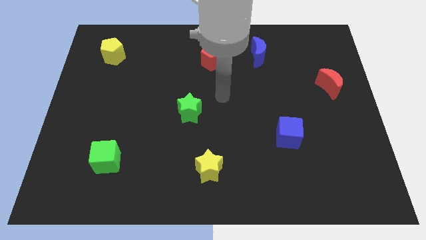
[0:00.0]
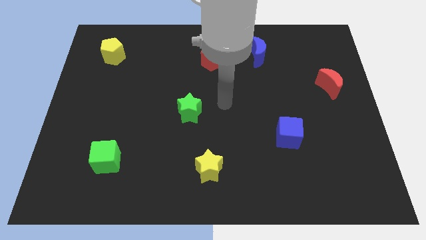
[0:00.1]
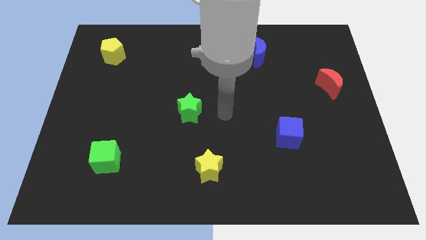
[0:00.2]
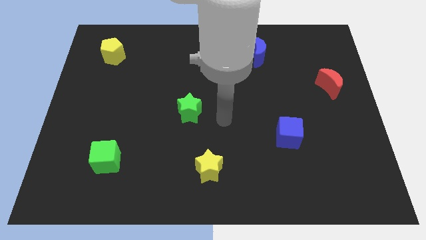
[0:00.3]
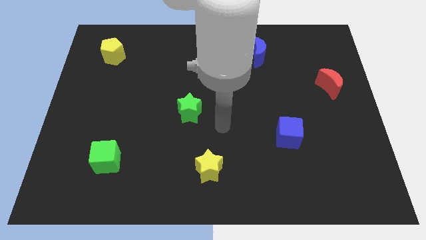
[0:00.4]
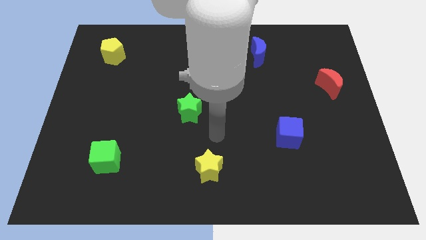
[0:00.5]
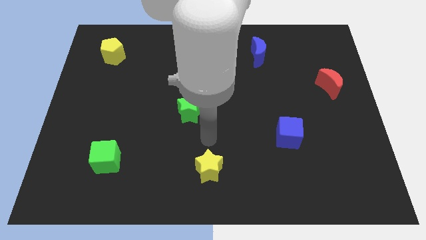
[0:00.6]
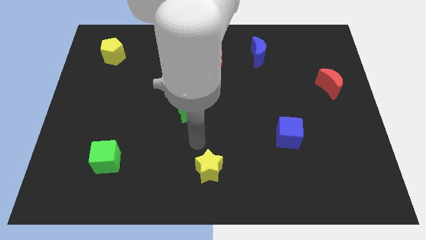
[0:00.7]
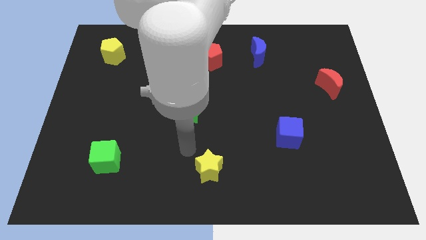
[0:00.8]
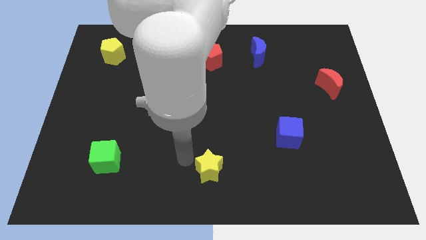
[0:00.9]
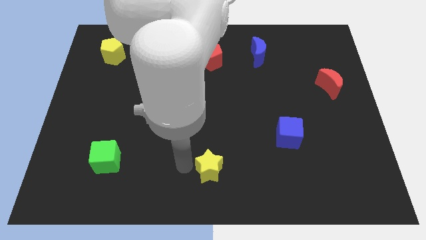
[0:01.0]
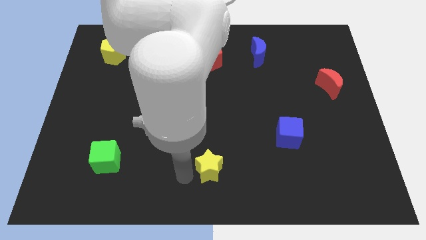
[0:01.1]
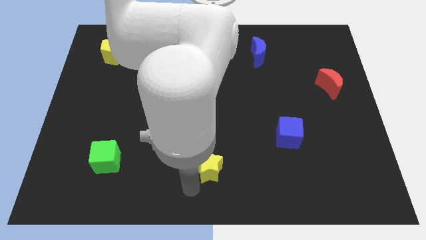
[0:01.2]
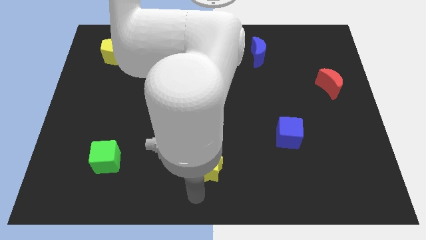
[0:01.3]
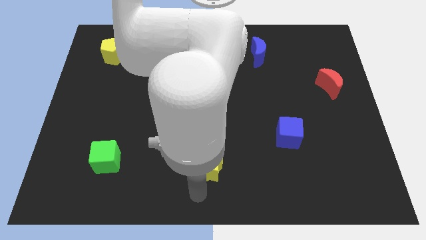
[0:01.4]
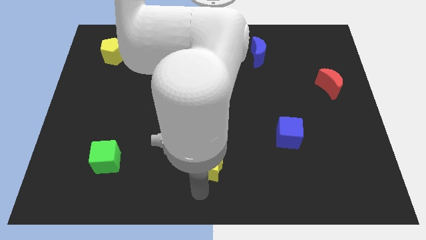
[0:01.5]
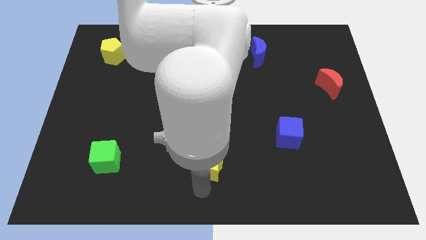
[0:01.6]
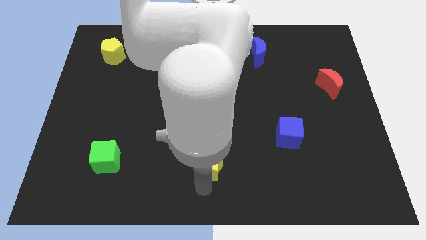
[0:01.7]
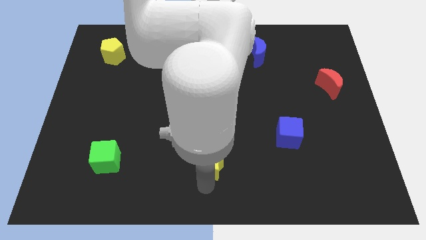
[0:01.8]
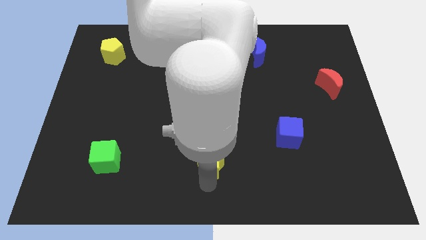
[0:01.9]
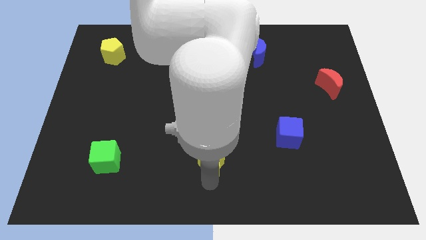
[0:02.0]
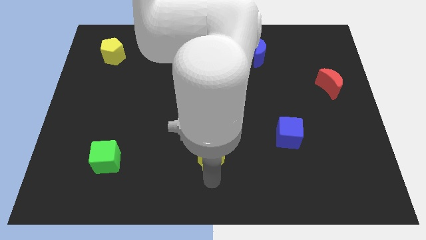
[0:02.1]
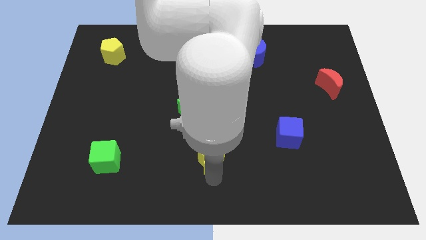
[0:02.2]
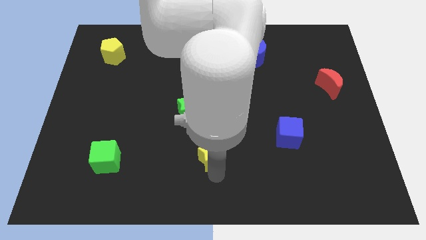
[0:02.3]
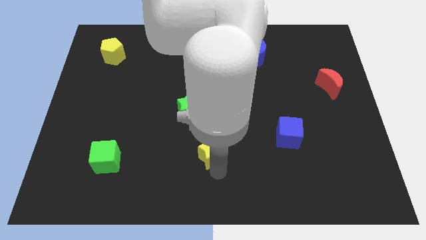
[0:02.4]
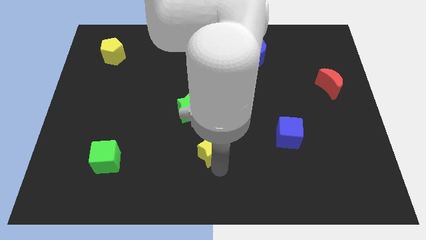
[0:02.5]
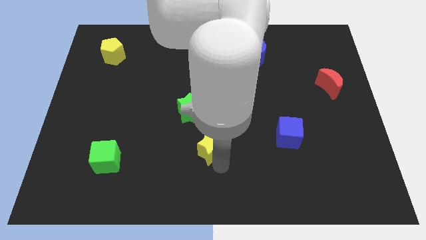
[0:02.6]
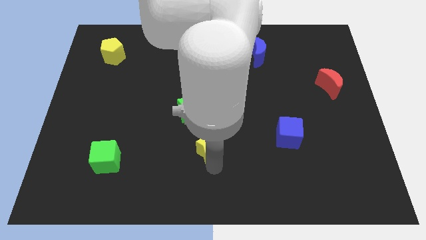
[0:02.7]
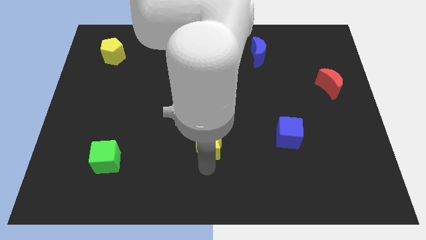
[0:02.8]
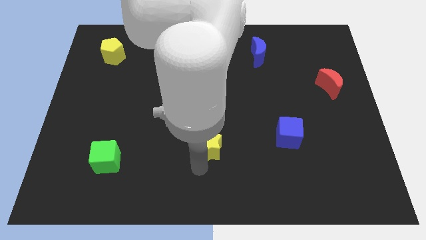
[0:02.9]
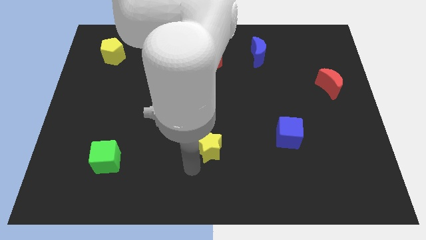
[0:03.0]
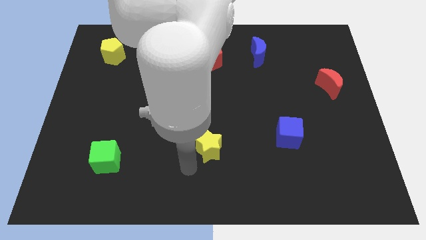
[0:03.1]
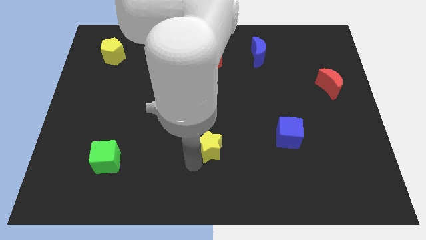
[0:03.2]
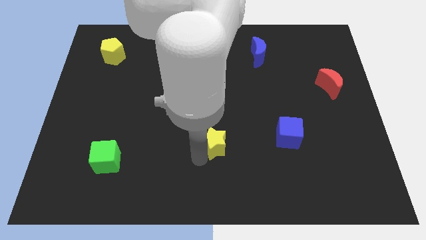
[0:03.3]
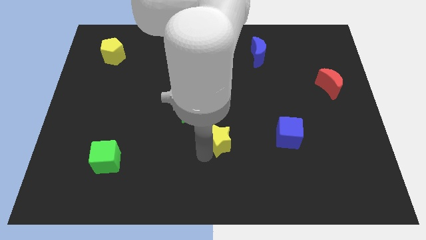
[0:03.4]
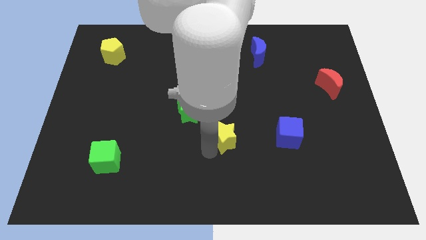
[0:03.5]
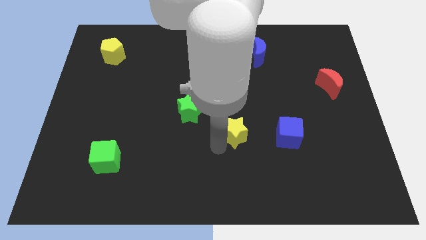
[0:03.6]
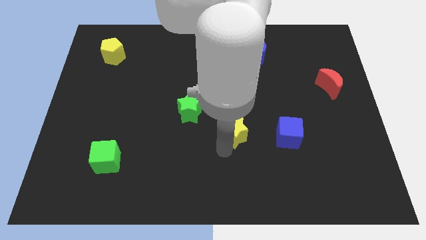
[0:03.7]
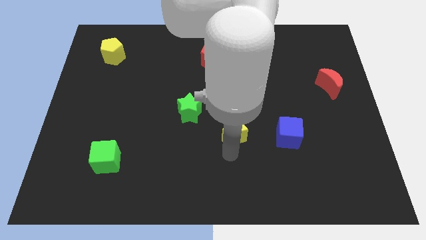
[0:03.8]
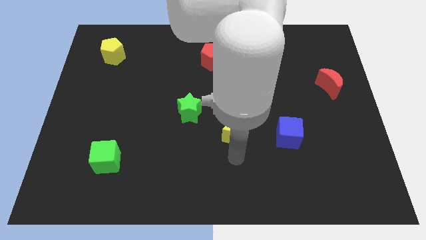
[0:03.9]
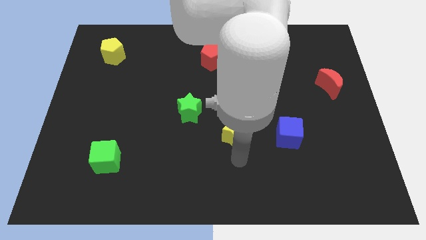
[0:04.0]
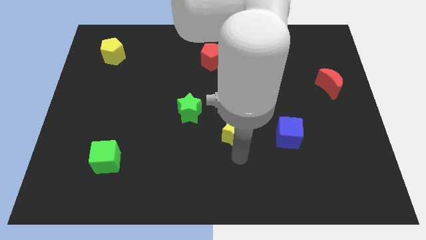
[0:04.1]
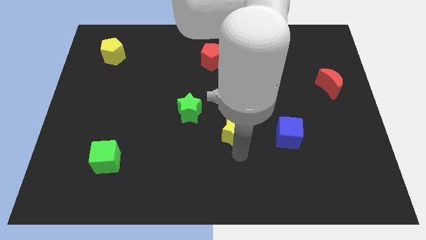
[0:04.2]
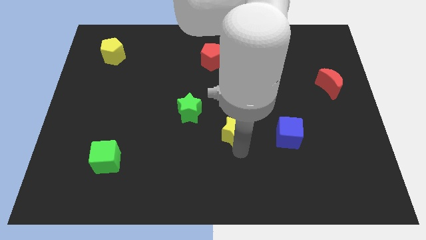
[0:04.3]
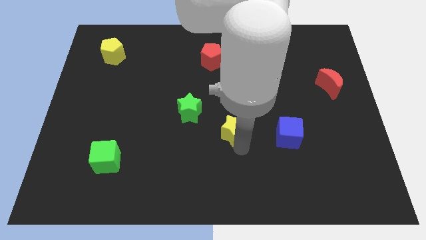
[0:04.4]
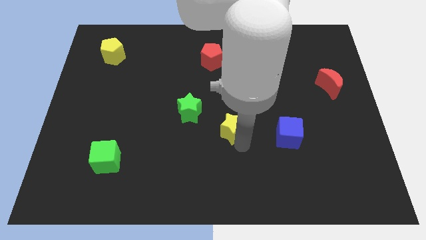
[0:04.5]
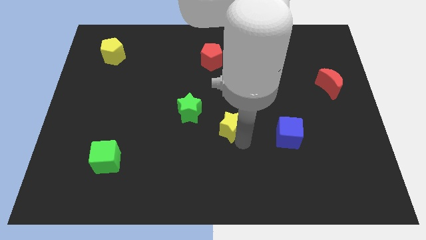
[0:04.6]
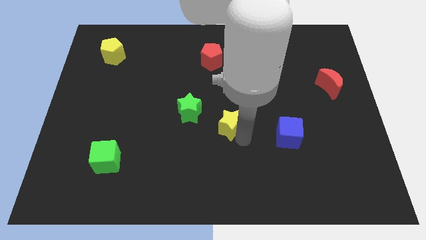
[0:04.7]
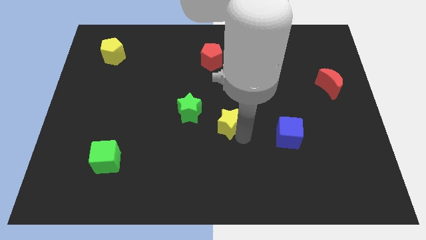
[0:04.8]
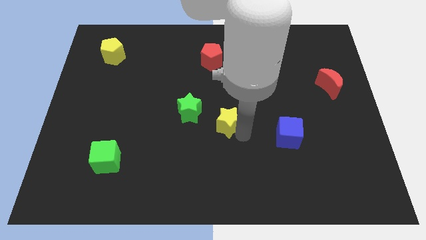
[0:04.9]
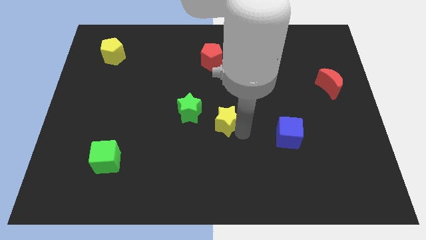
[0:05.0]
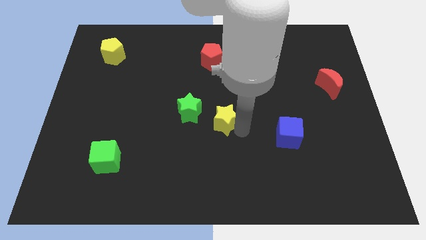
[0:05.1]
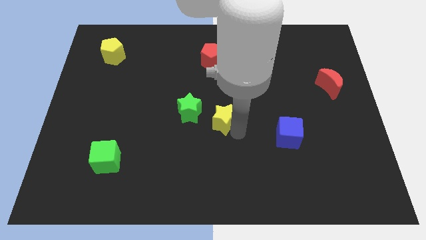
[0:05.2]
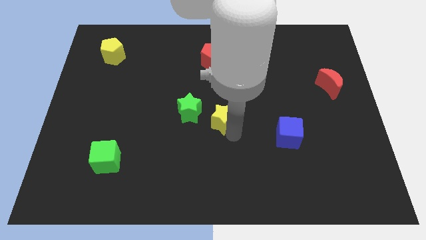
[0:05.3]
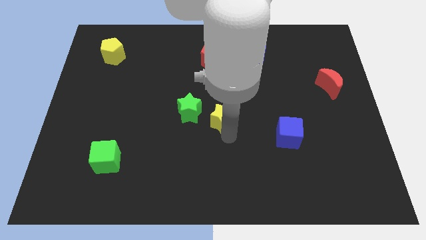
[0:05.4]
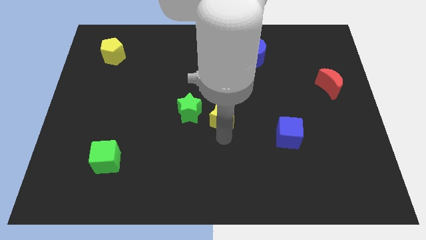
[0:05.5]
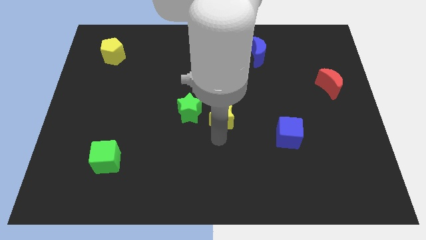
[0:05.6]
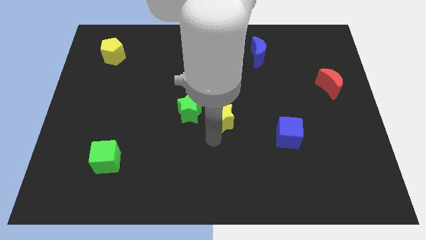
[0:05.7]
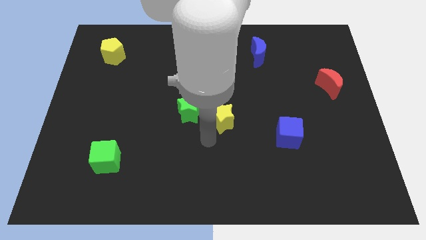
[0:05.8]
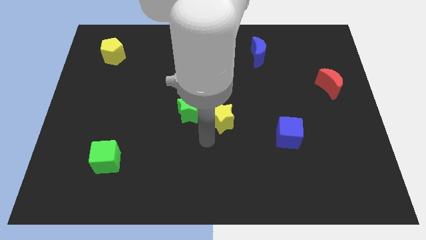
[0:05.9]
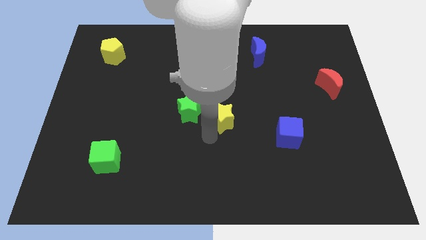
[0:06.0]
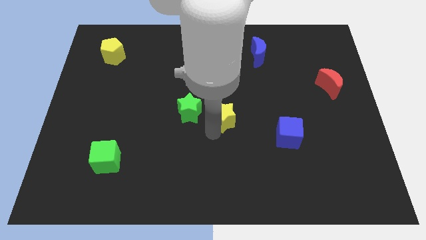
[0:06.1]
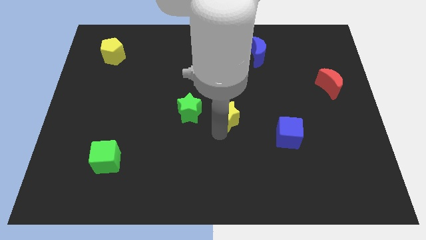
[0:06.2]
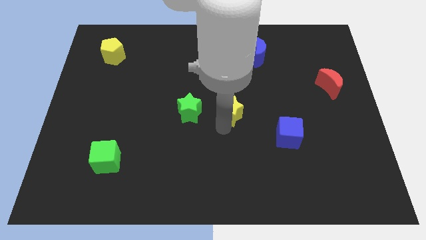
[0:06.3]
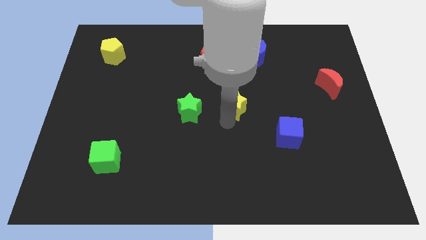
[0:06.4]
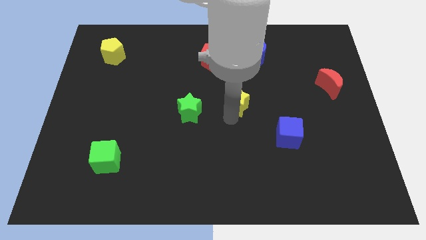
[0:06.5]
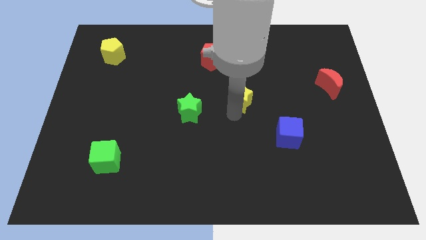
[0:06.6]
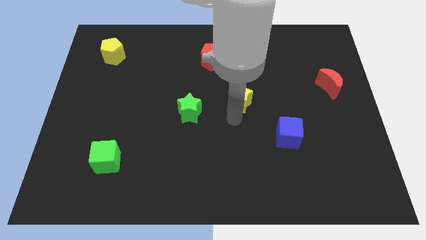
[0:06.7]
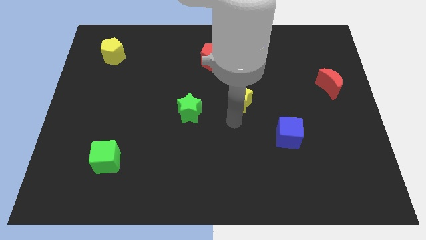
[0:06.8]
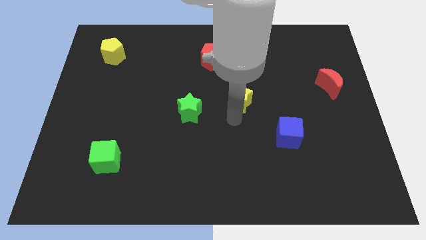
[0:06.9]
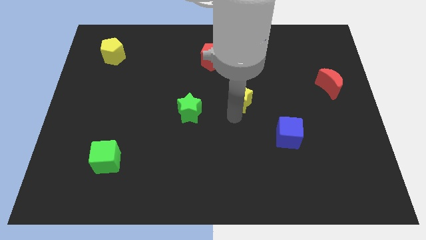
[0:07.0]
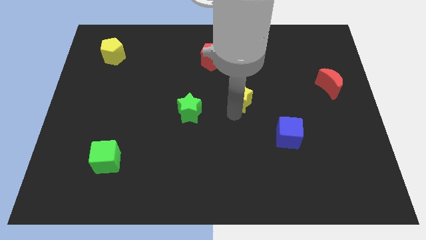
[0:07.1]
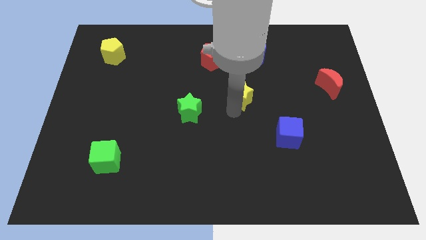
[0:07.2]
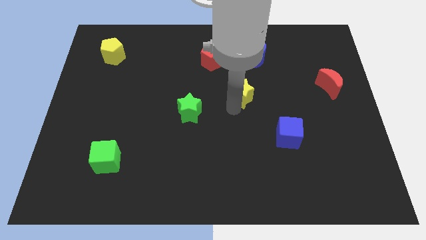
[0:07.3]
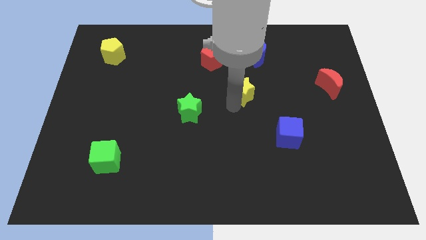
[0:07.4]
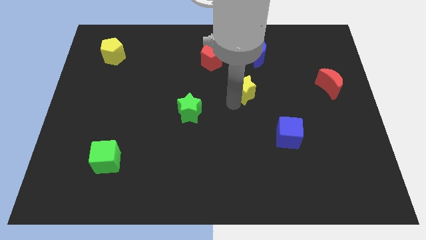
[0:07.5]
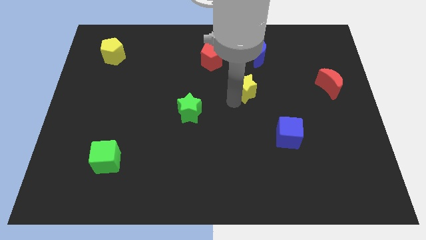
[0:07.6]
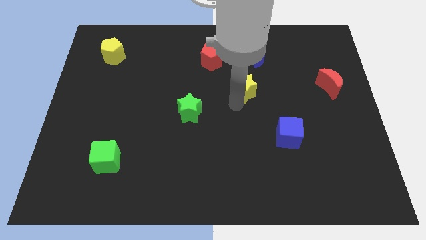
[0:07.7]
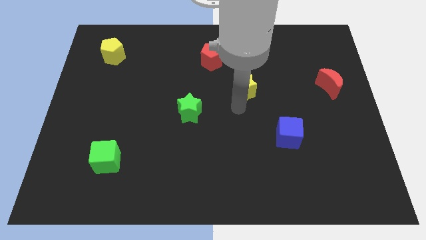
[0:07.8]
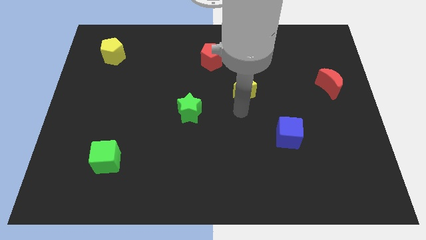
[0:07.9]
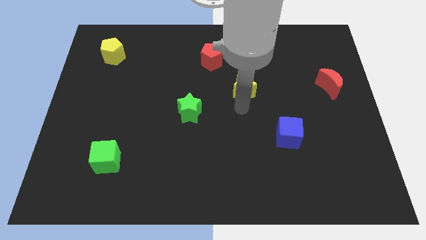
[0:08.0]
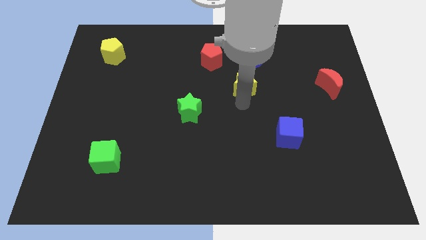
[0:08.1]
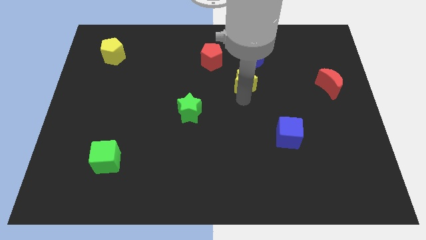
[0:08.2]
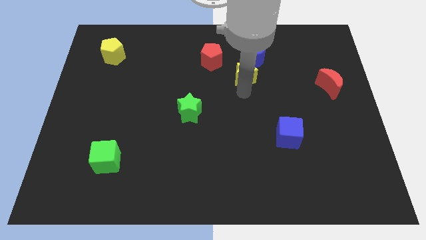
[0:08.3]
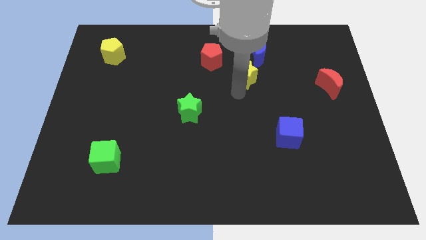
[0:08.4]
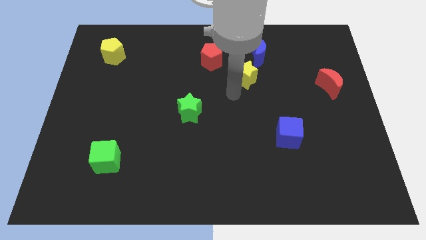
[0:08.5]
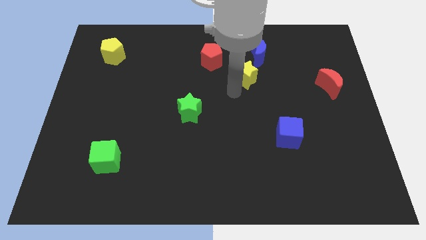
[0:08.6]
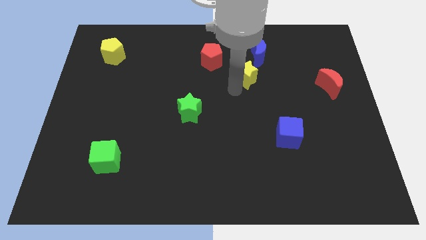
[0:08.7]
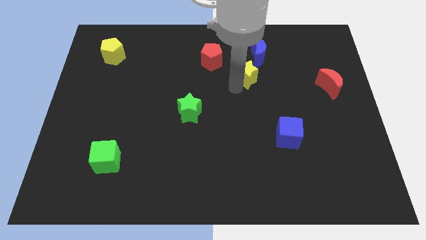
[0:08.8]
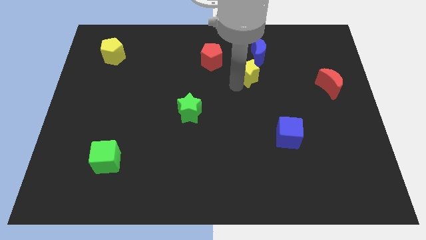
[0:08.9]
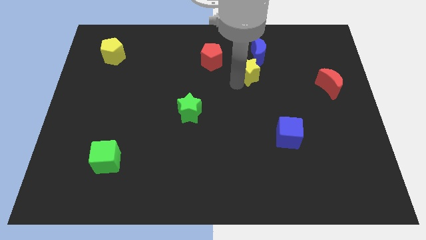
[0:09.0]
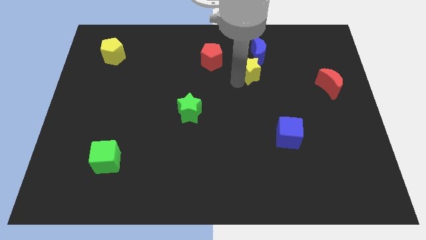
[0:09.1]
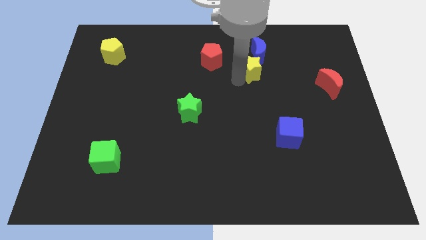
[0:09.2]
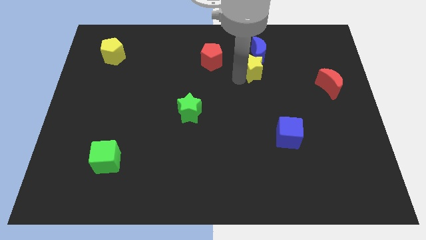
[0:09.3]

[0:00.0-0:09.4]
put the yellow star close to the blue moon
